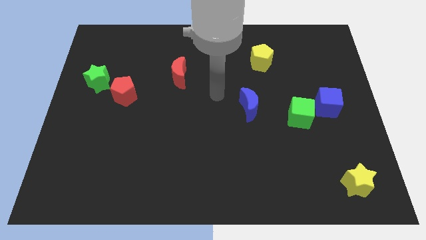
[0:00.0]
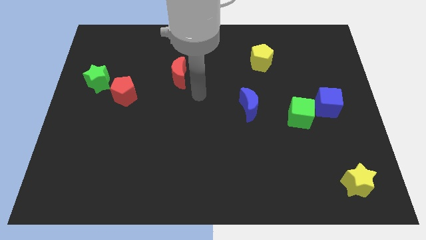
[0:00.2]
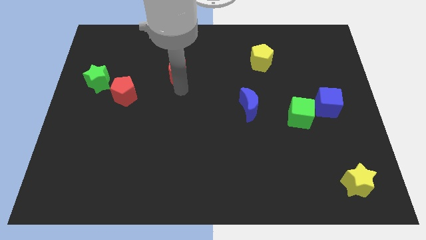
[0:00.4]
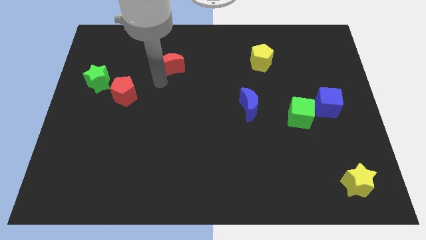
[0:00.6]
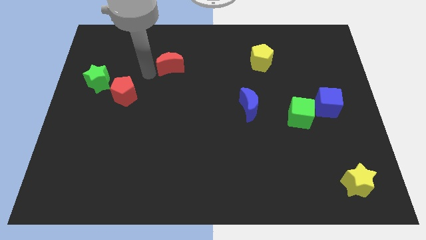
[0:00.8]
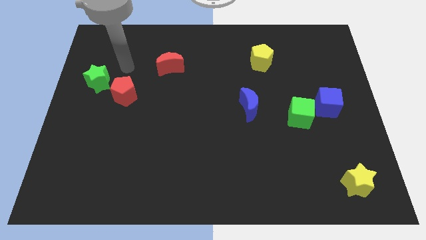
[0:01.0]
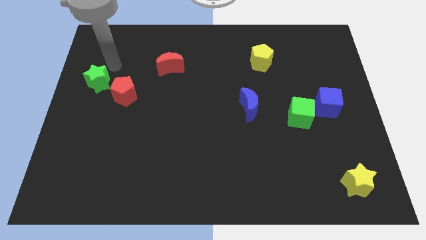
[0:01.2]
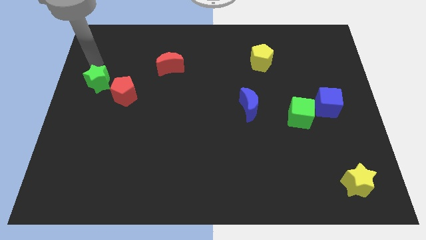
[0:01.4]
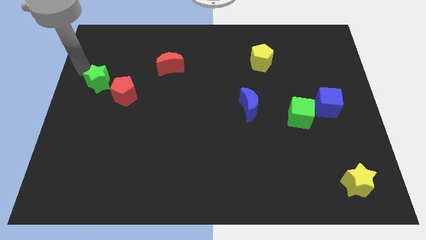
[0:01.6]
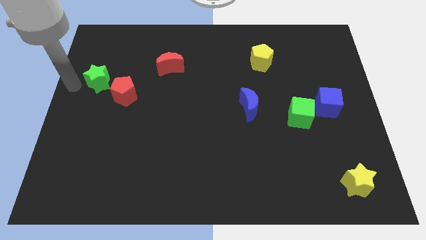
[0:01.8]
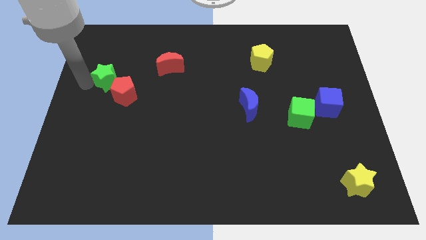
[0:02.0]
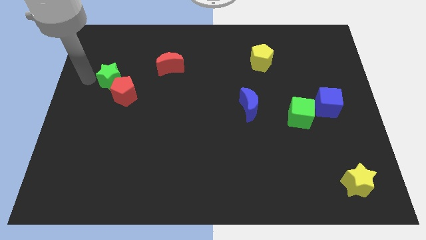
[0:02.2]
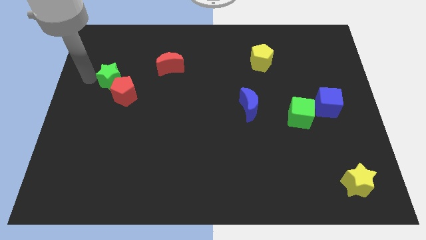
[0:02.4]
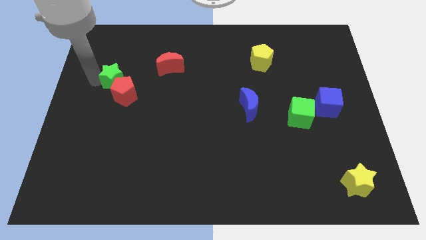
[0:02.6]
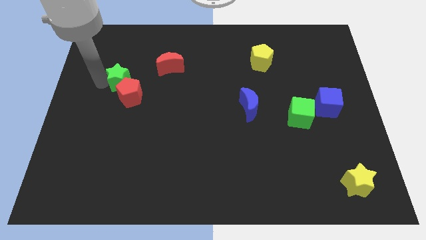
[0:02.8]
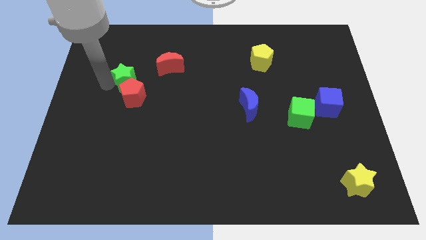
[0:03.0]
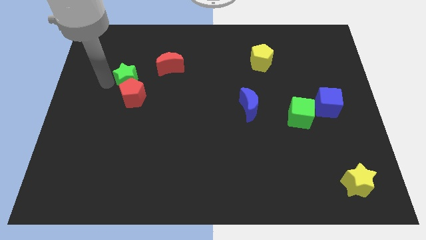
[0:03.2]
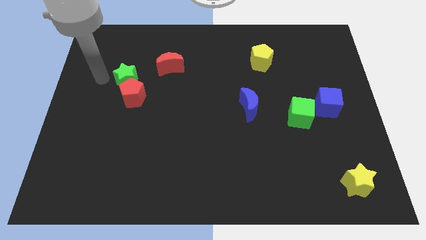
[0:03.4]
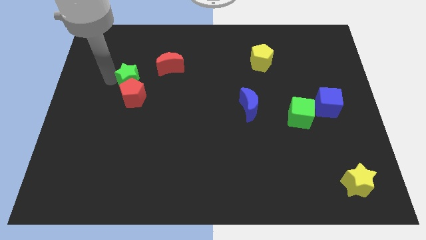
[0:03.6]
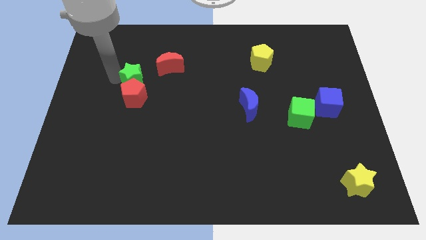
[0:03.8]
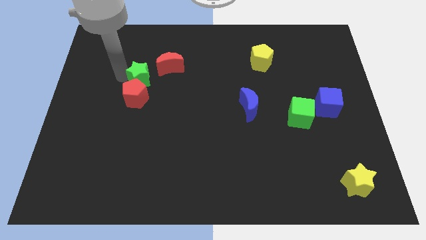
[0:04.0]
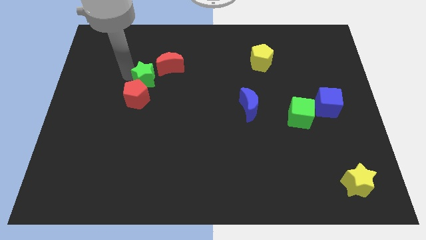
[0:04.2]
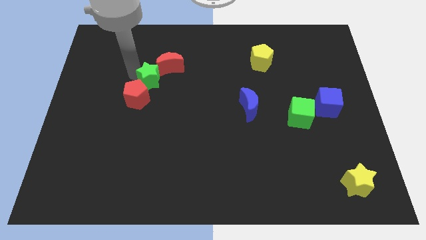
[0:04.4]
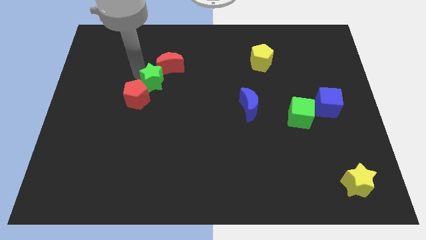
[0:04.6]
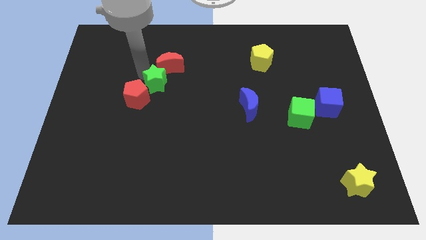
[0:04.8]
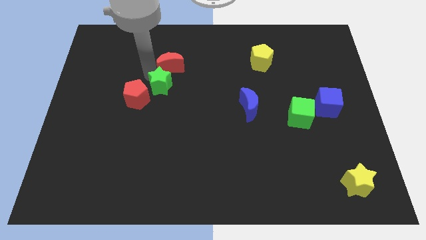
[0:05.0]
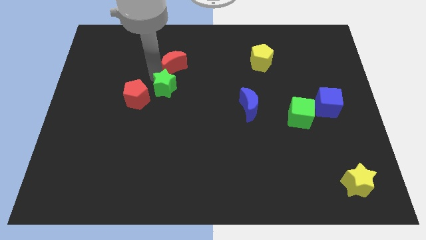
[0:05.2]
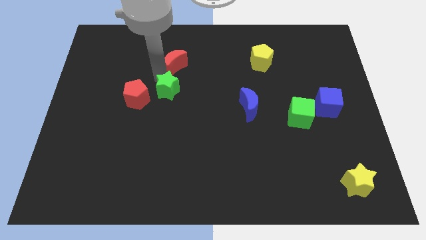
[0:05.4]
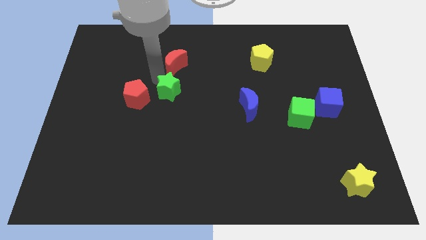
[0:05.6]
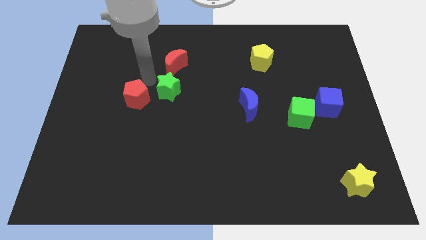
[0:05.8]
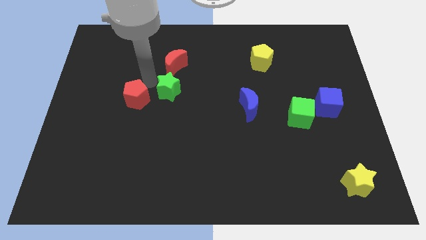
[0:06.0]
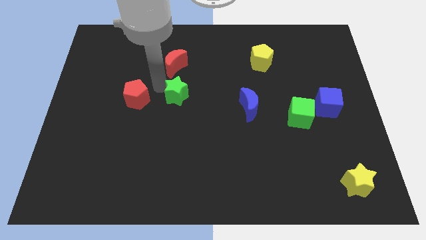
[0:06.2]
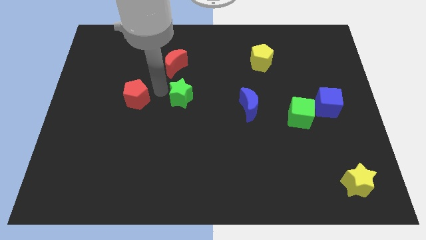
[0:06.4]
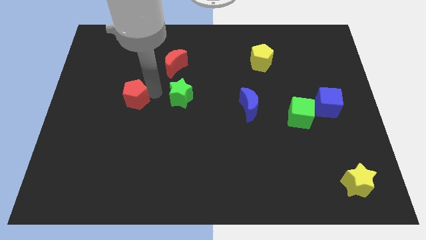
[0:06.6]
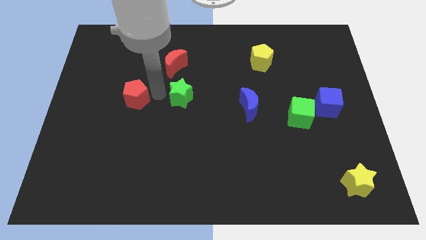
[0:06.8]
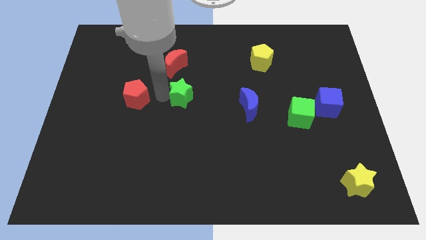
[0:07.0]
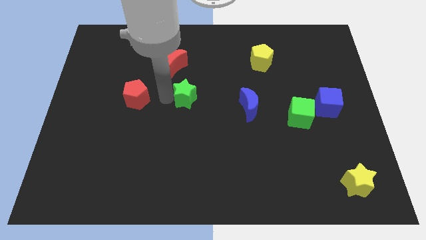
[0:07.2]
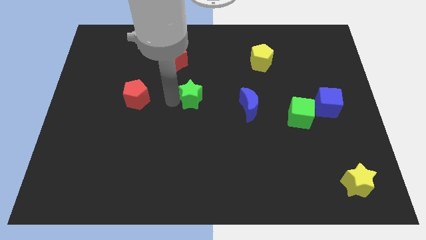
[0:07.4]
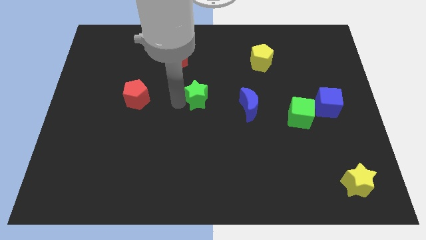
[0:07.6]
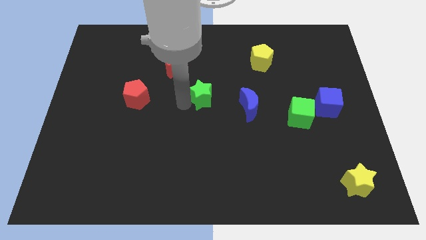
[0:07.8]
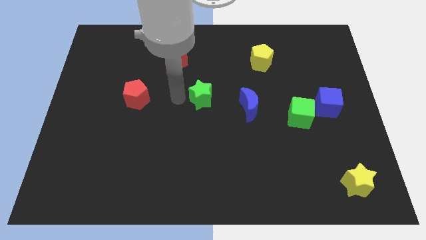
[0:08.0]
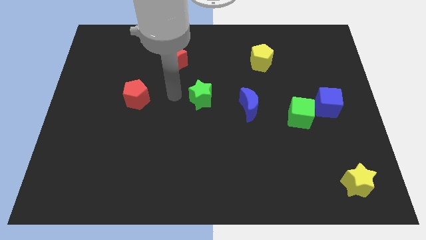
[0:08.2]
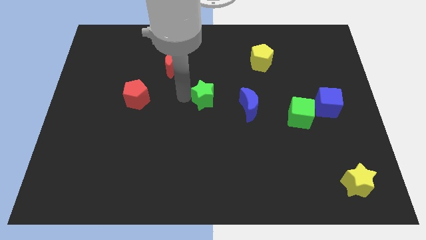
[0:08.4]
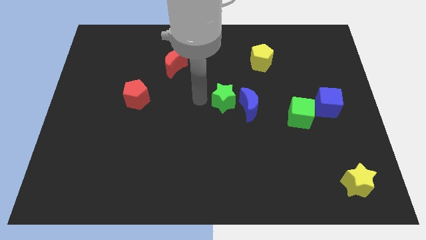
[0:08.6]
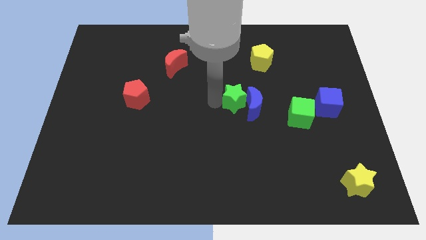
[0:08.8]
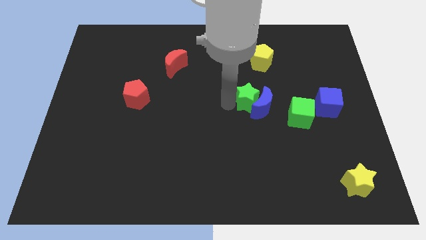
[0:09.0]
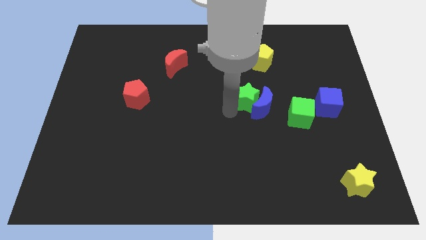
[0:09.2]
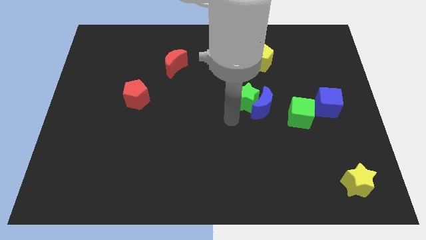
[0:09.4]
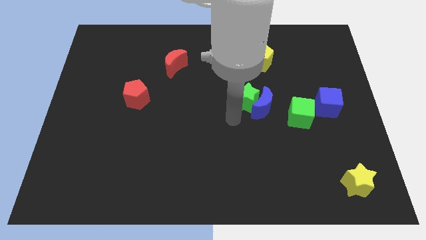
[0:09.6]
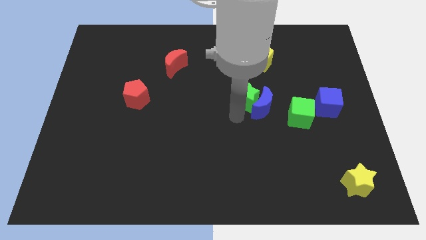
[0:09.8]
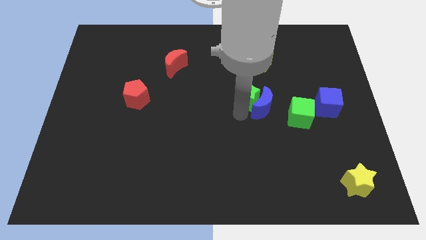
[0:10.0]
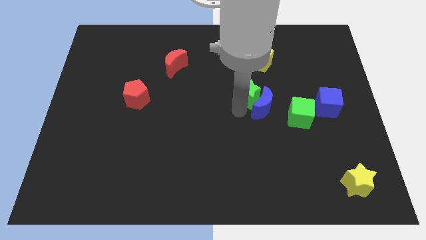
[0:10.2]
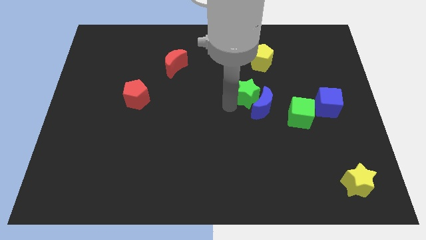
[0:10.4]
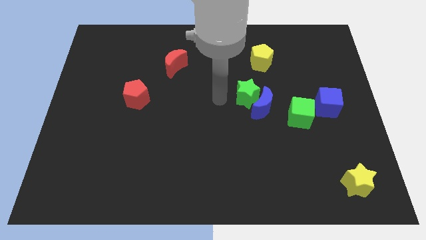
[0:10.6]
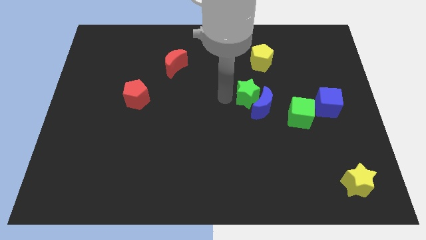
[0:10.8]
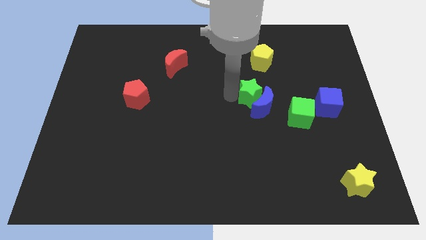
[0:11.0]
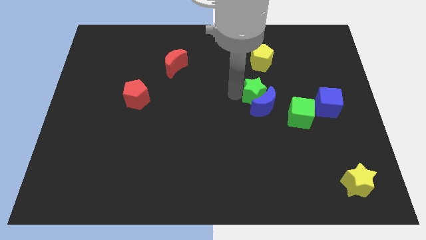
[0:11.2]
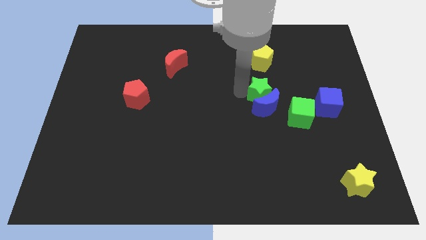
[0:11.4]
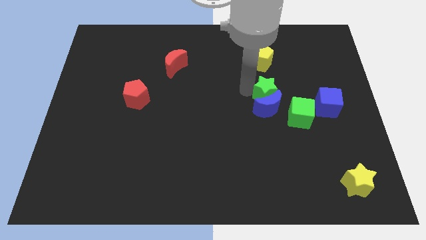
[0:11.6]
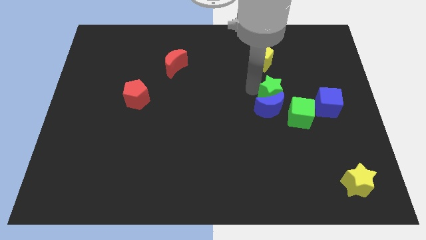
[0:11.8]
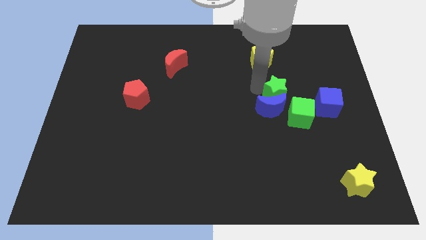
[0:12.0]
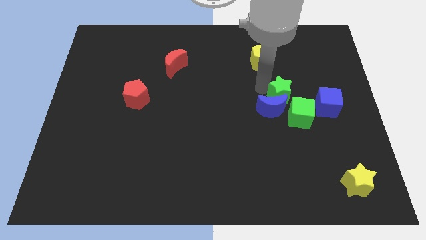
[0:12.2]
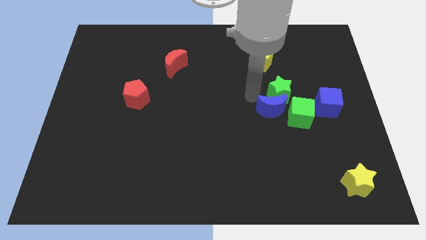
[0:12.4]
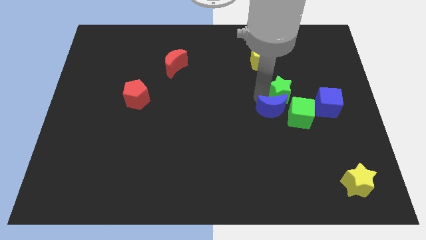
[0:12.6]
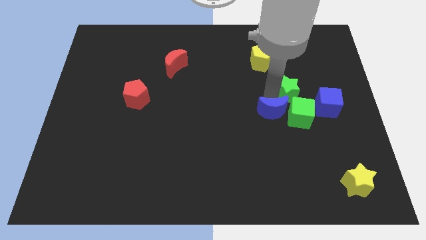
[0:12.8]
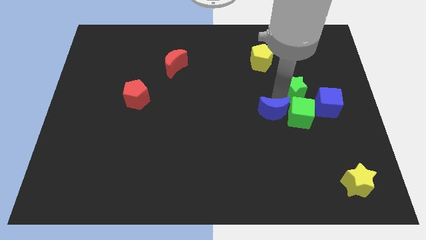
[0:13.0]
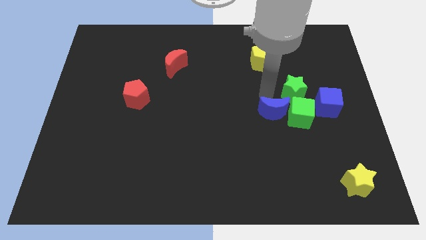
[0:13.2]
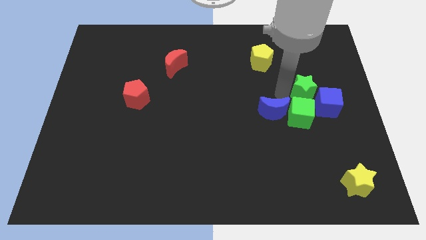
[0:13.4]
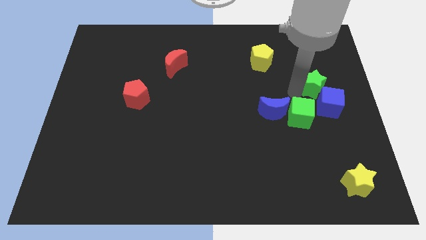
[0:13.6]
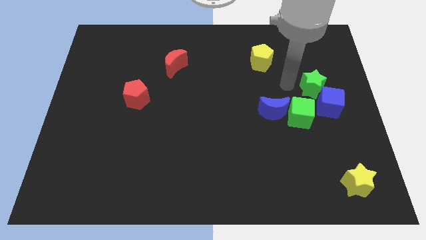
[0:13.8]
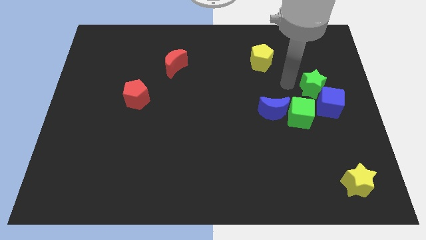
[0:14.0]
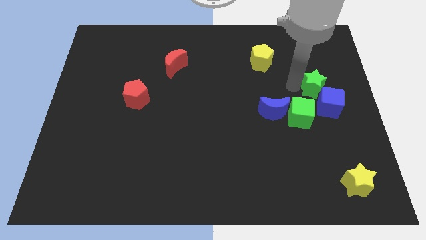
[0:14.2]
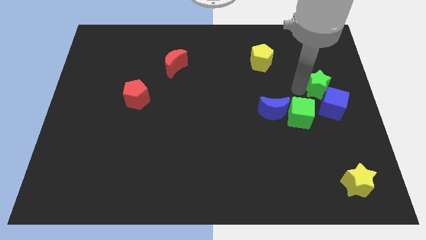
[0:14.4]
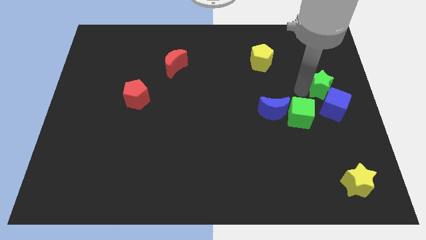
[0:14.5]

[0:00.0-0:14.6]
push the green star to the right side of the board

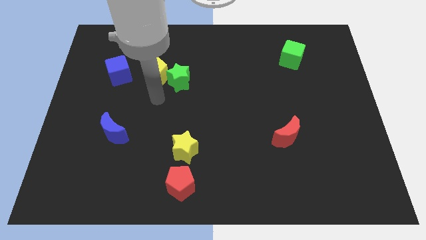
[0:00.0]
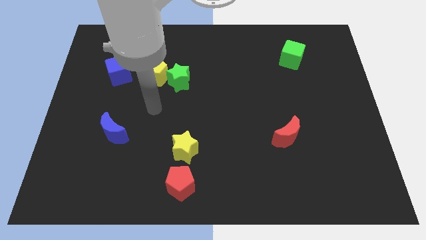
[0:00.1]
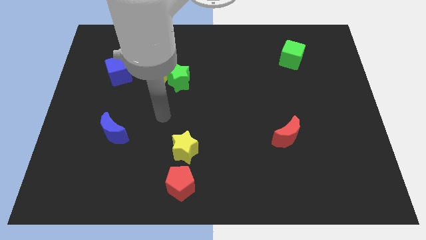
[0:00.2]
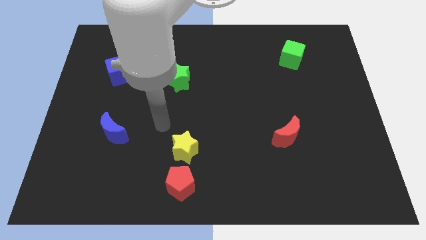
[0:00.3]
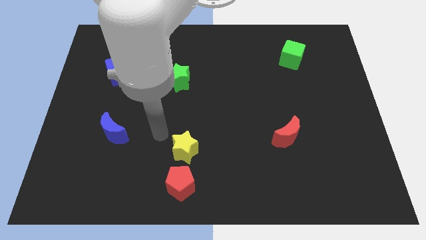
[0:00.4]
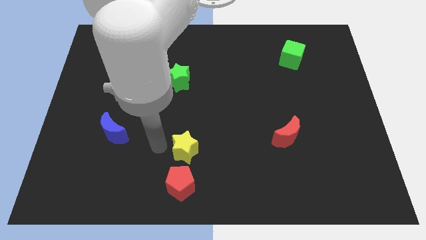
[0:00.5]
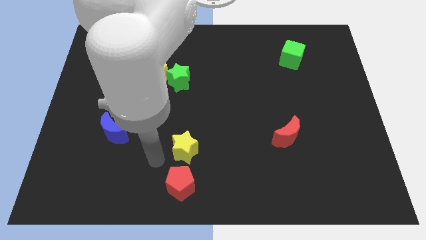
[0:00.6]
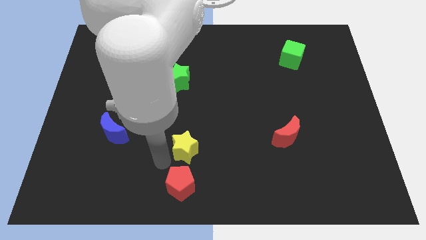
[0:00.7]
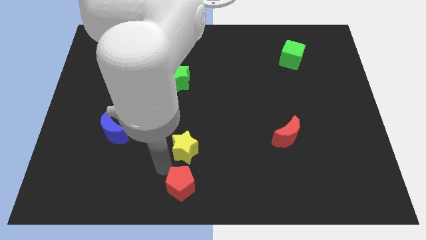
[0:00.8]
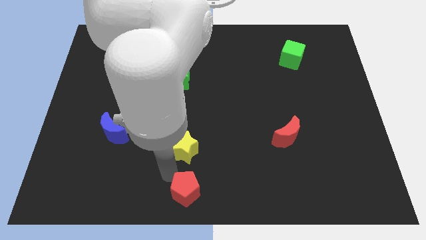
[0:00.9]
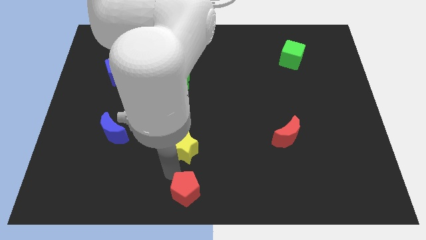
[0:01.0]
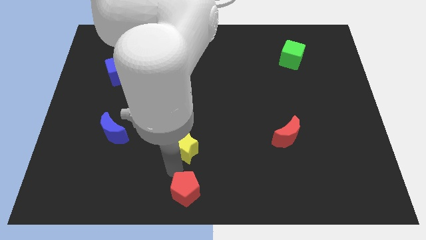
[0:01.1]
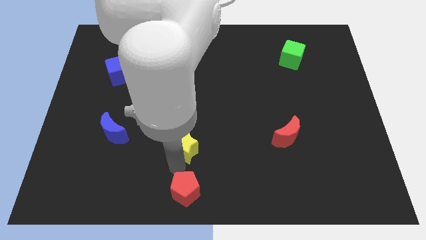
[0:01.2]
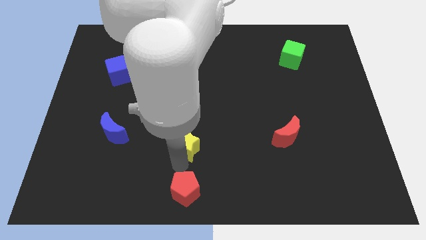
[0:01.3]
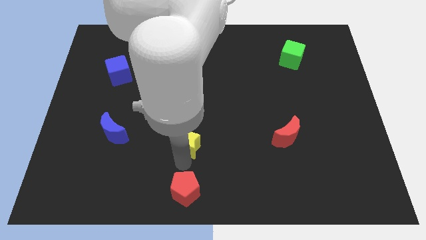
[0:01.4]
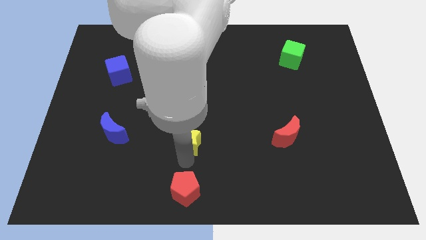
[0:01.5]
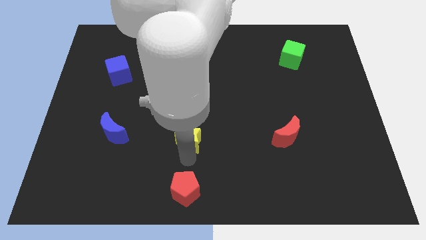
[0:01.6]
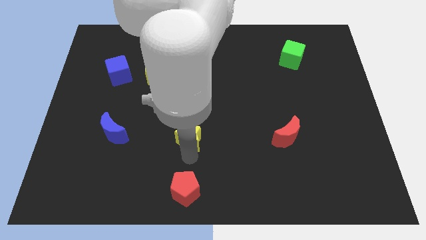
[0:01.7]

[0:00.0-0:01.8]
slide the yellow star to the middle of the board
